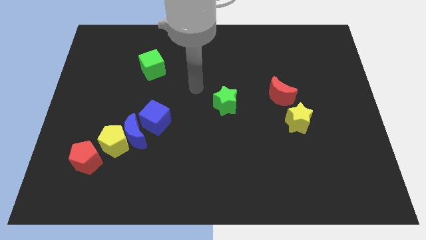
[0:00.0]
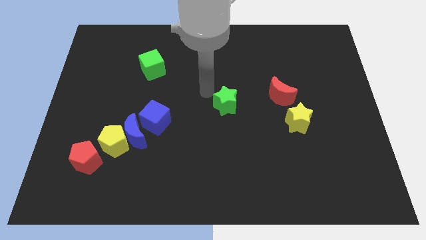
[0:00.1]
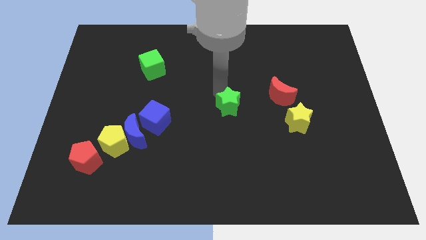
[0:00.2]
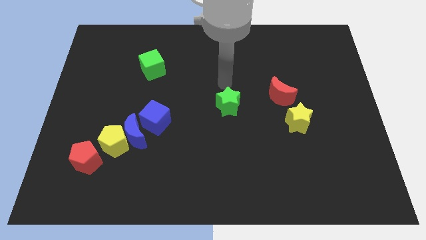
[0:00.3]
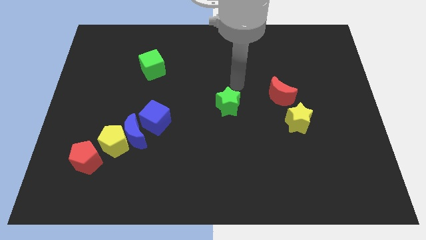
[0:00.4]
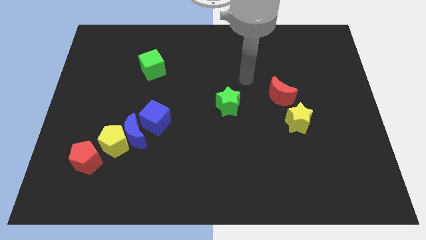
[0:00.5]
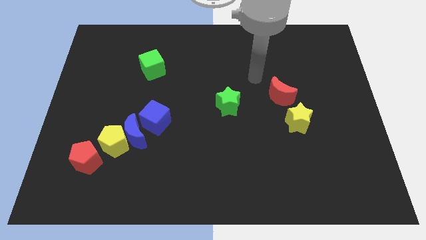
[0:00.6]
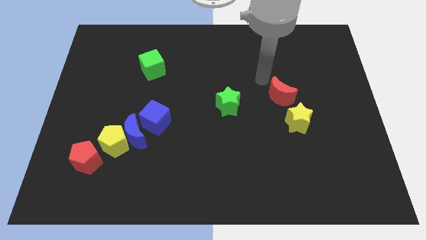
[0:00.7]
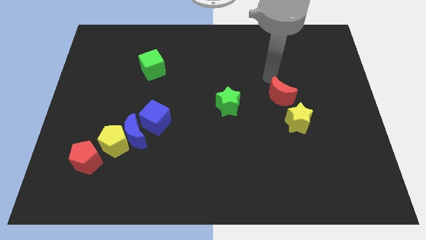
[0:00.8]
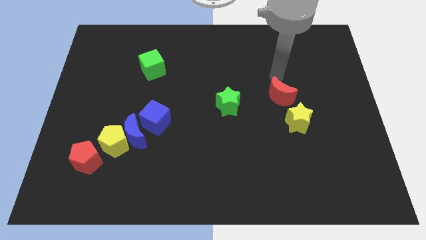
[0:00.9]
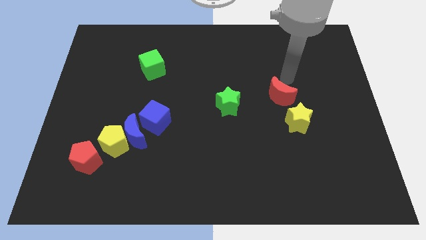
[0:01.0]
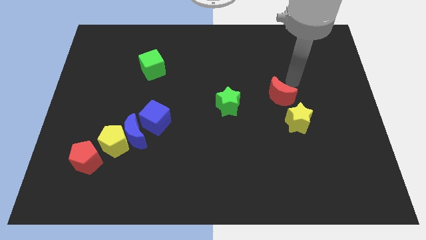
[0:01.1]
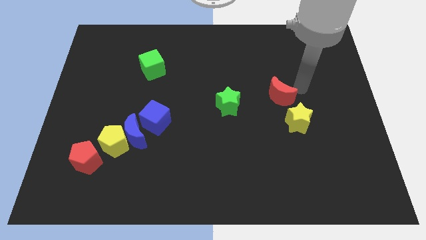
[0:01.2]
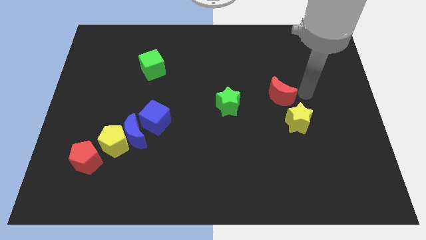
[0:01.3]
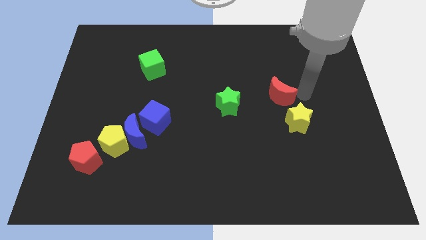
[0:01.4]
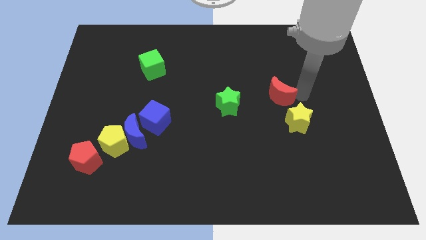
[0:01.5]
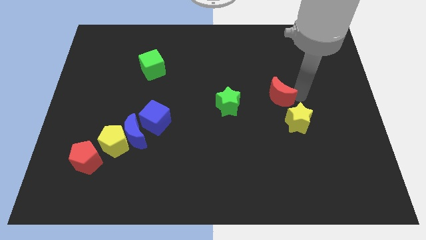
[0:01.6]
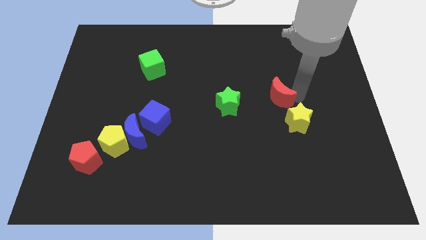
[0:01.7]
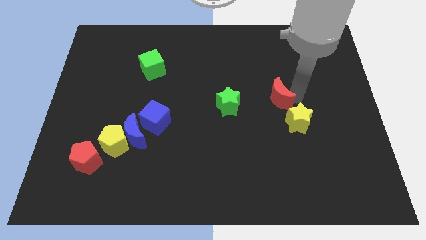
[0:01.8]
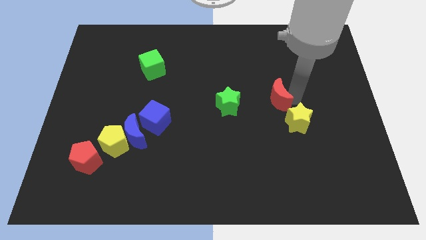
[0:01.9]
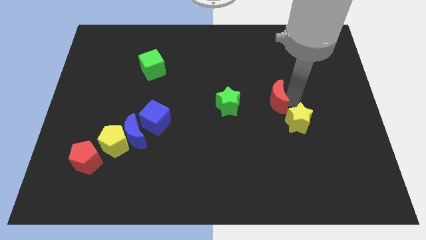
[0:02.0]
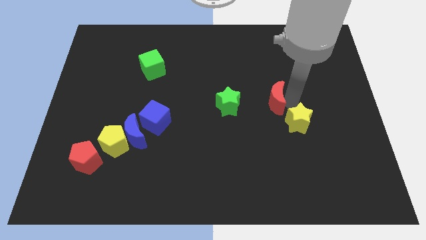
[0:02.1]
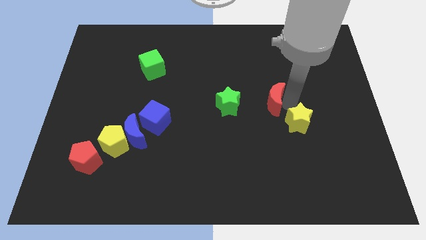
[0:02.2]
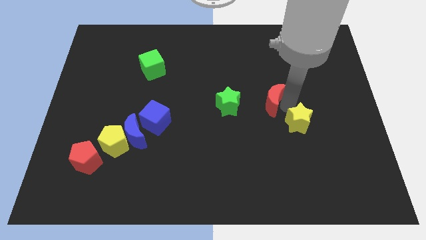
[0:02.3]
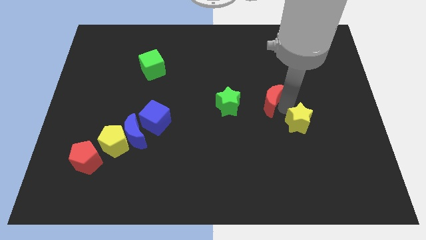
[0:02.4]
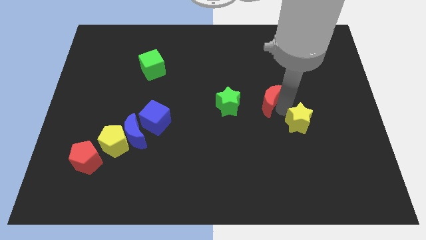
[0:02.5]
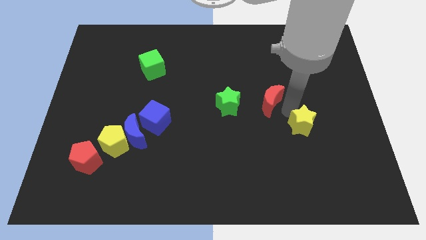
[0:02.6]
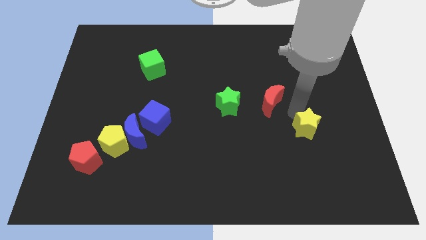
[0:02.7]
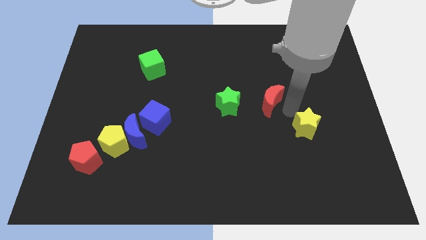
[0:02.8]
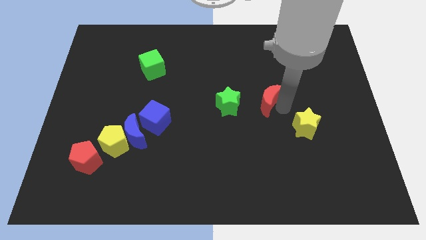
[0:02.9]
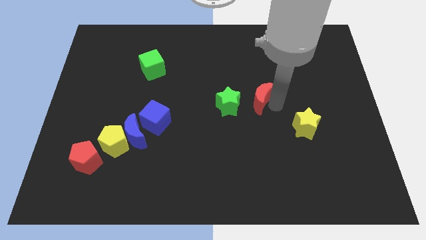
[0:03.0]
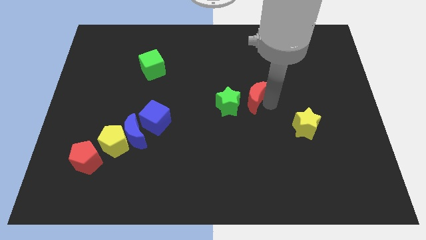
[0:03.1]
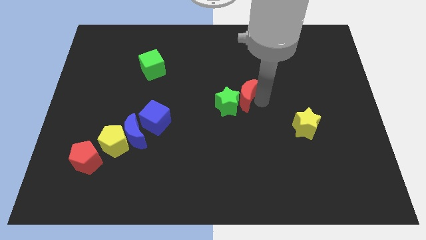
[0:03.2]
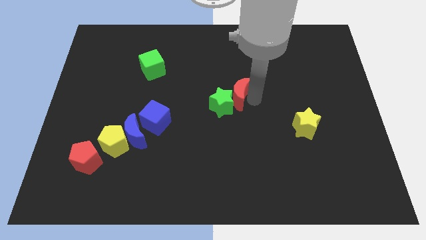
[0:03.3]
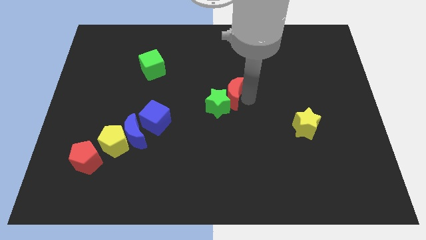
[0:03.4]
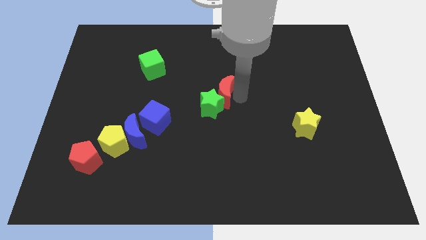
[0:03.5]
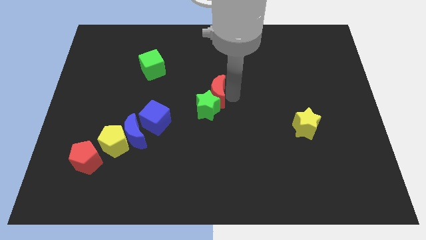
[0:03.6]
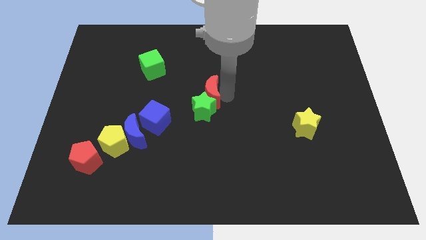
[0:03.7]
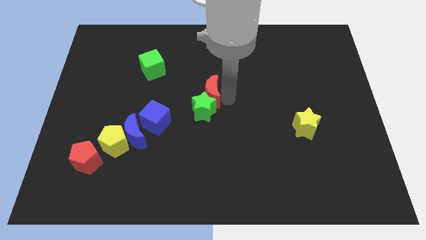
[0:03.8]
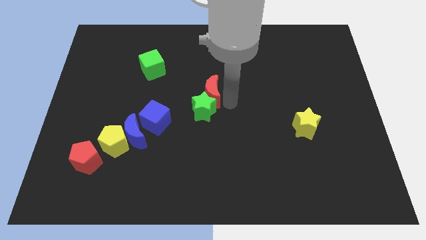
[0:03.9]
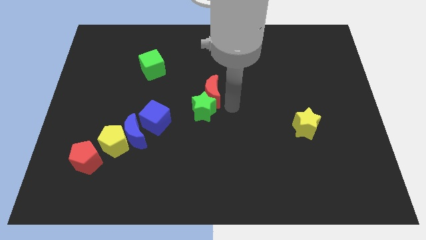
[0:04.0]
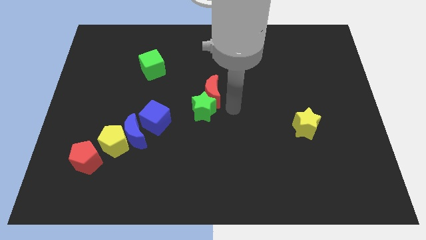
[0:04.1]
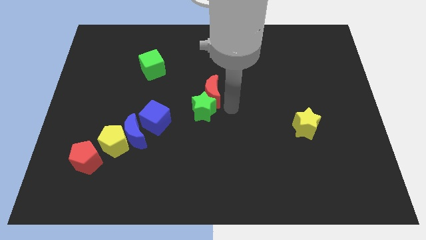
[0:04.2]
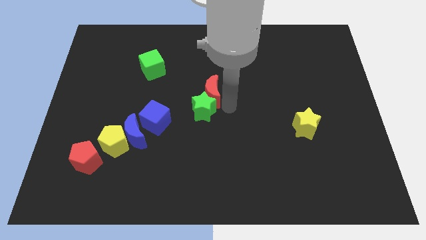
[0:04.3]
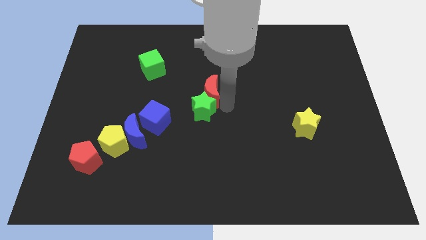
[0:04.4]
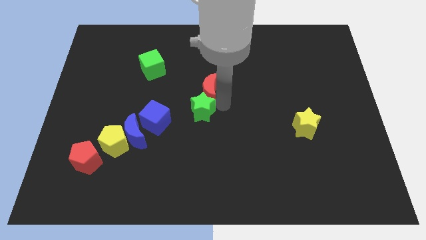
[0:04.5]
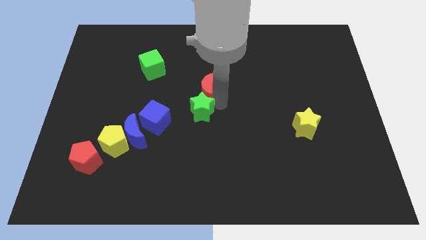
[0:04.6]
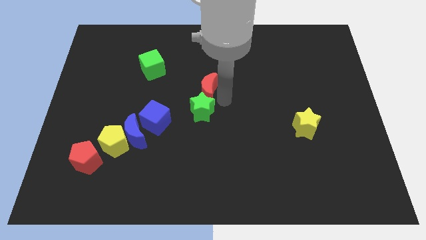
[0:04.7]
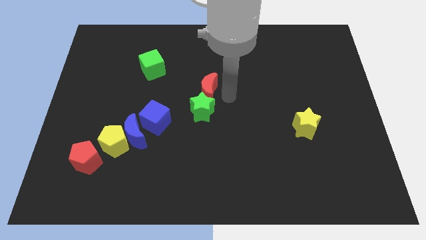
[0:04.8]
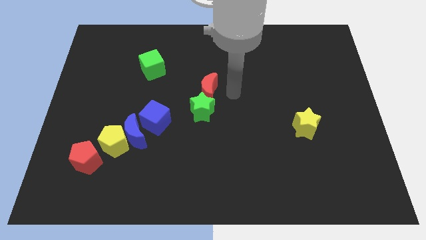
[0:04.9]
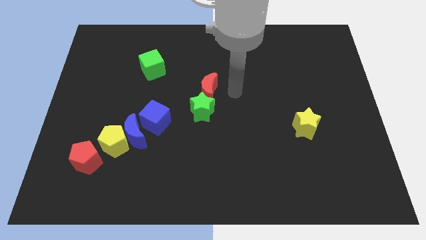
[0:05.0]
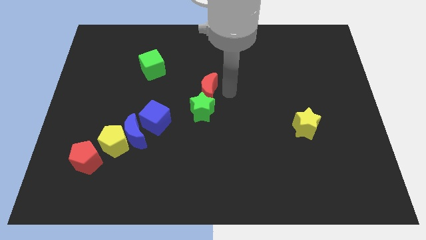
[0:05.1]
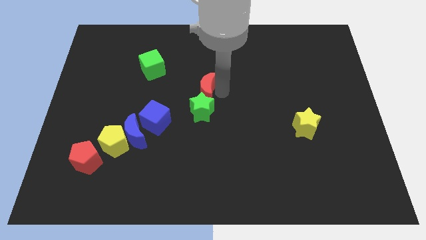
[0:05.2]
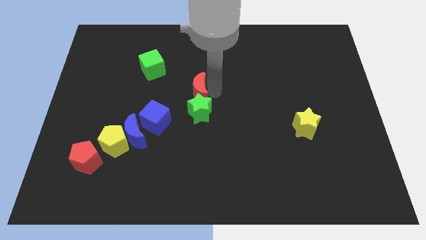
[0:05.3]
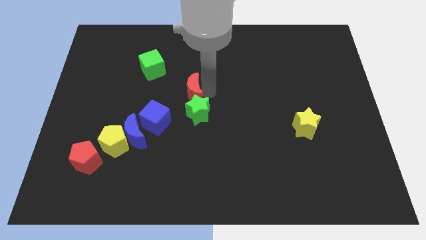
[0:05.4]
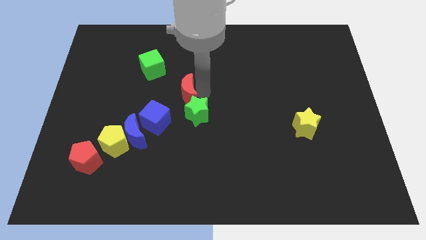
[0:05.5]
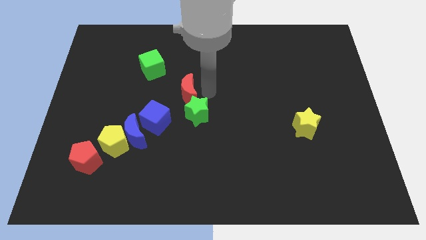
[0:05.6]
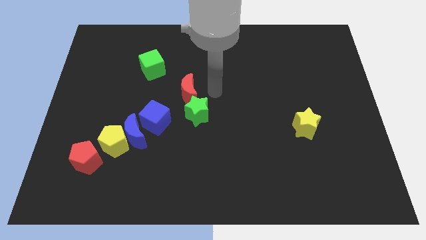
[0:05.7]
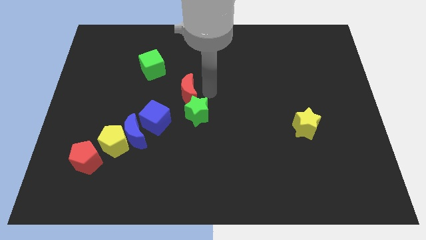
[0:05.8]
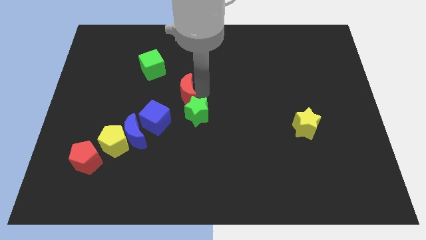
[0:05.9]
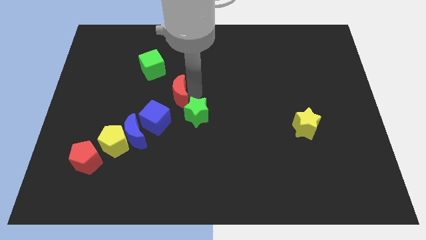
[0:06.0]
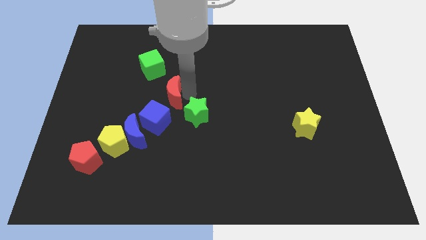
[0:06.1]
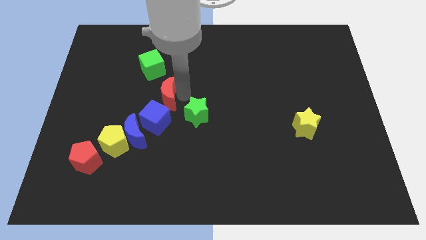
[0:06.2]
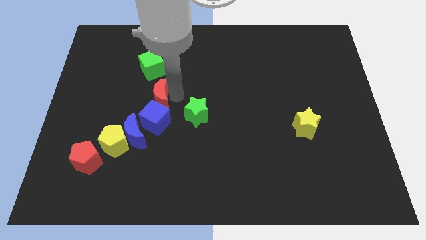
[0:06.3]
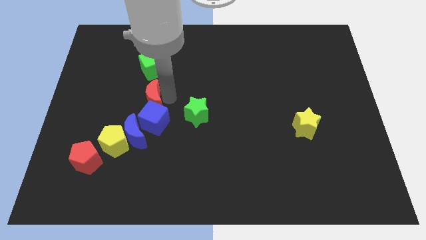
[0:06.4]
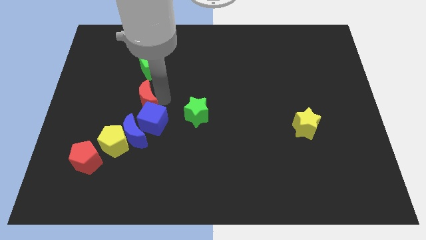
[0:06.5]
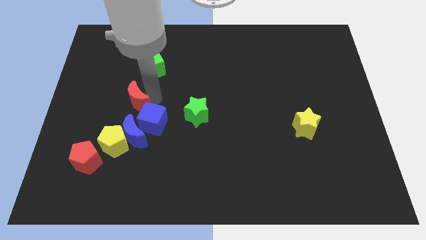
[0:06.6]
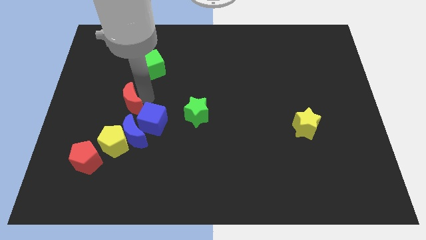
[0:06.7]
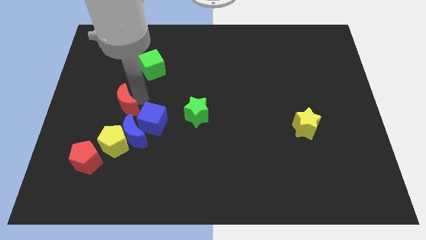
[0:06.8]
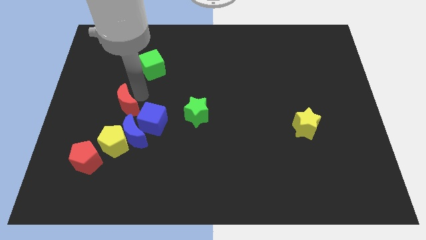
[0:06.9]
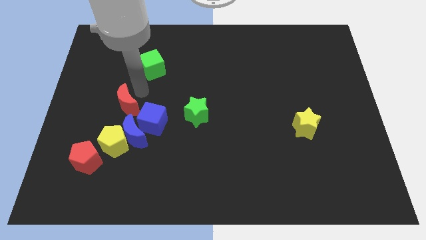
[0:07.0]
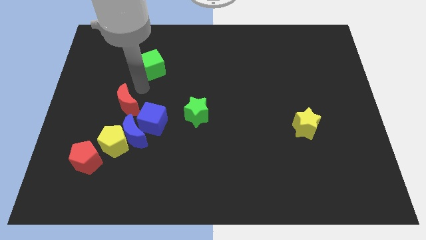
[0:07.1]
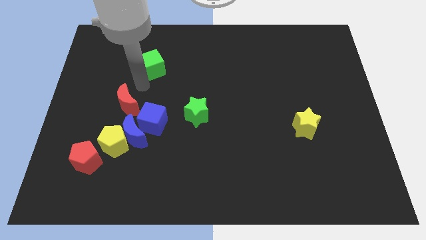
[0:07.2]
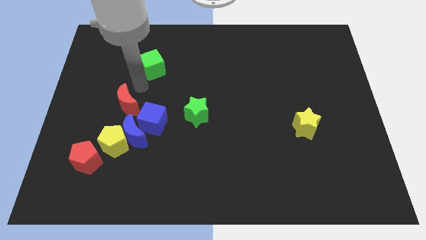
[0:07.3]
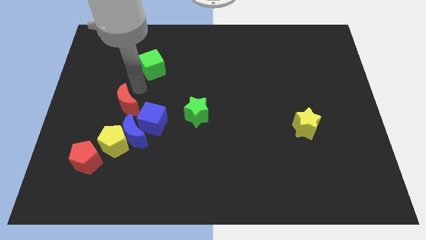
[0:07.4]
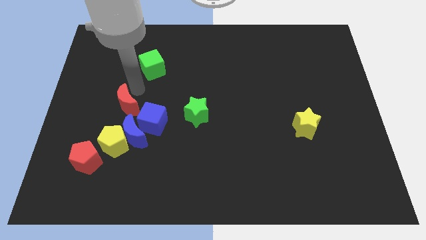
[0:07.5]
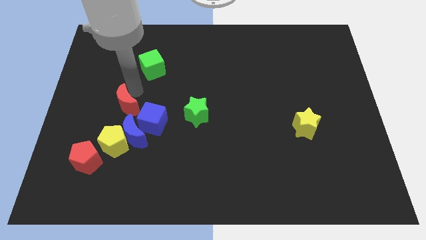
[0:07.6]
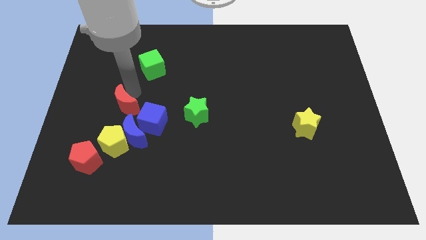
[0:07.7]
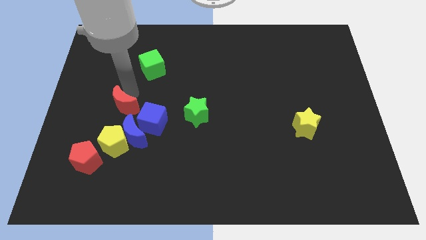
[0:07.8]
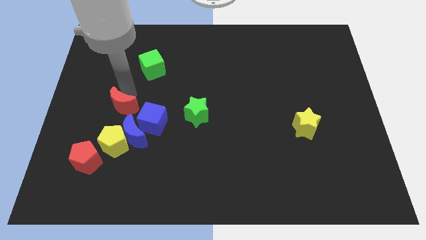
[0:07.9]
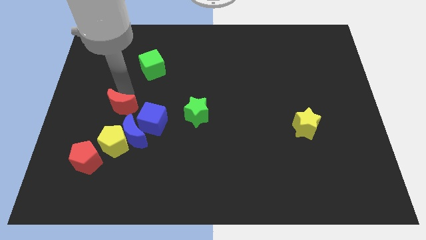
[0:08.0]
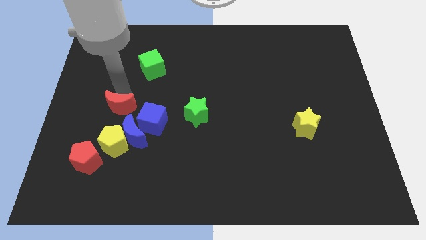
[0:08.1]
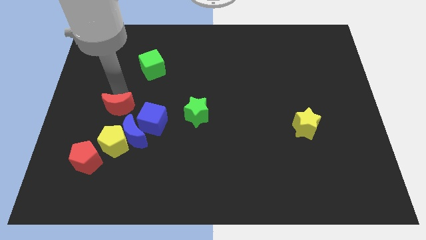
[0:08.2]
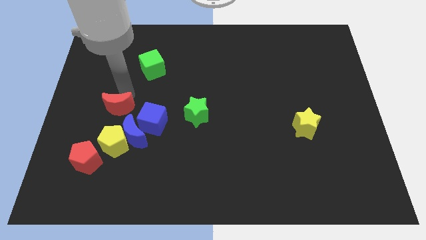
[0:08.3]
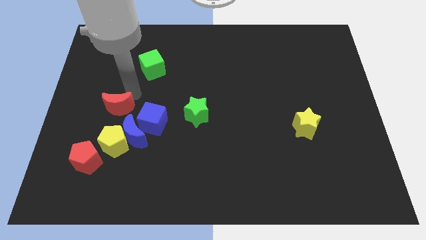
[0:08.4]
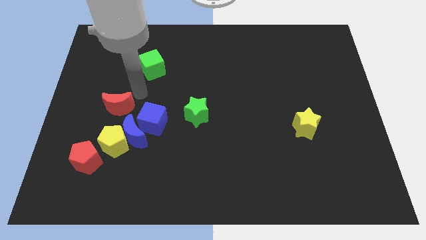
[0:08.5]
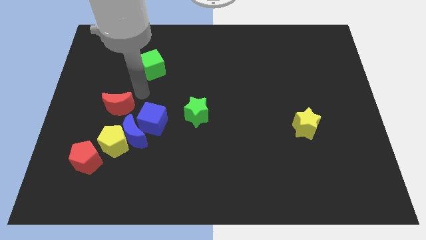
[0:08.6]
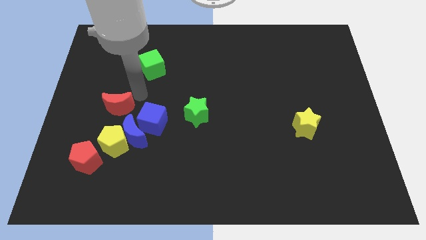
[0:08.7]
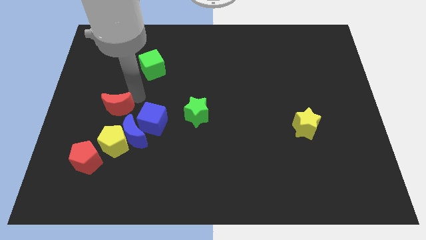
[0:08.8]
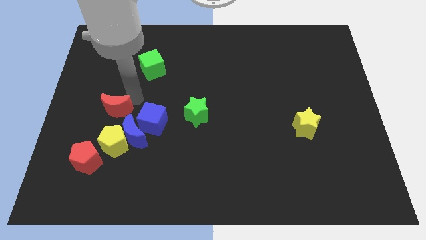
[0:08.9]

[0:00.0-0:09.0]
put the red moon to the top side of the red pentagon
